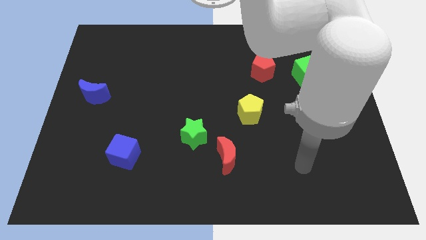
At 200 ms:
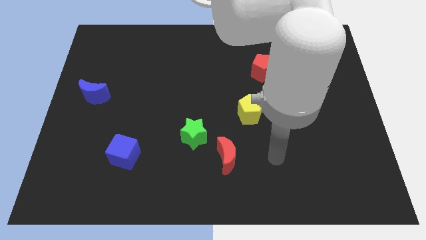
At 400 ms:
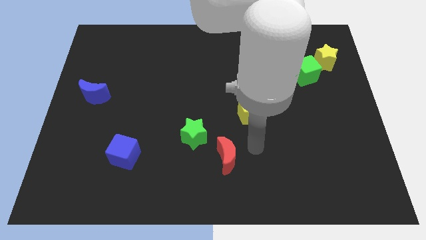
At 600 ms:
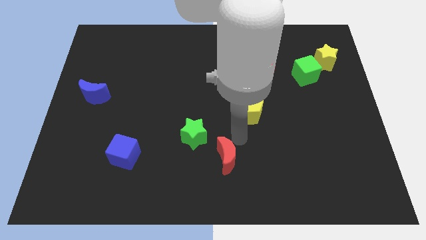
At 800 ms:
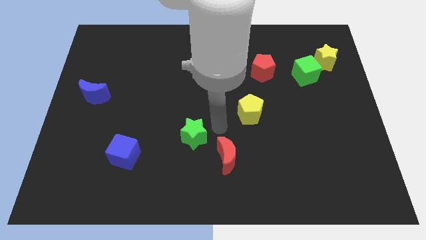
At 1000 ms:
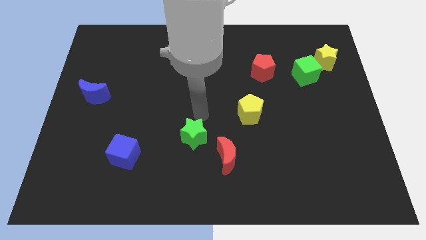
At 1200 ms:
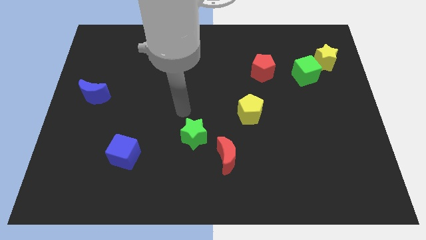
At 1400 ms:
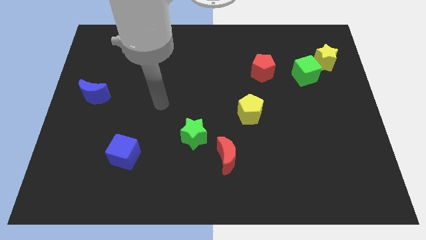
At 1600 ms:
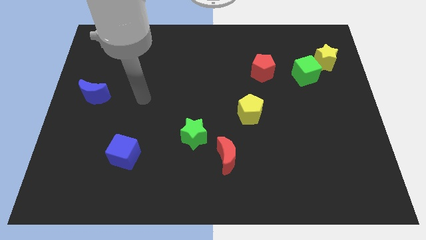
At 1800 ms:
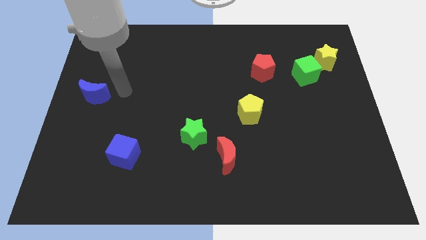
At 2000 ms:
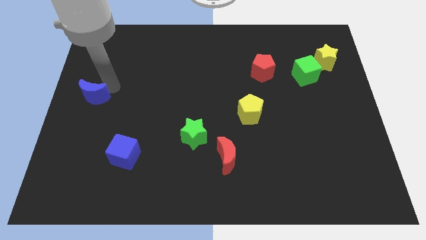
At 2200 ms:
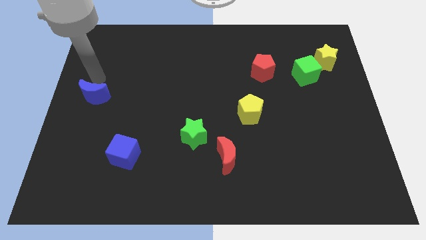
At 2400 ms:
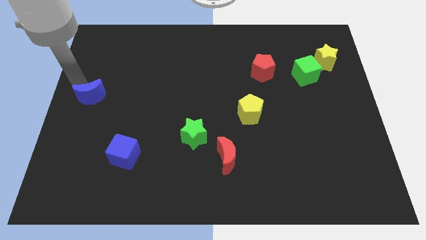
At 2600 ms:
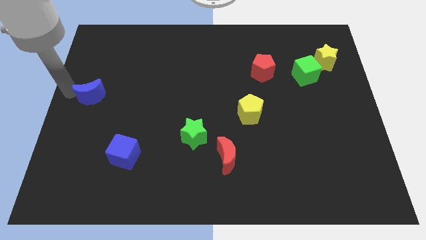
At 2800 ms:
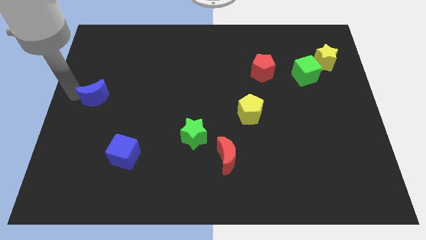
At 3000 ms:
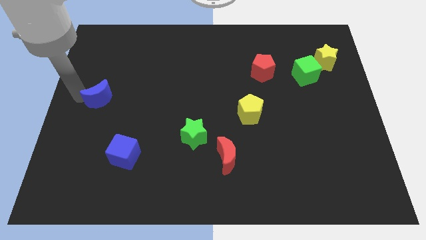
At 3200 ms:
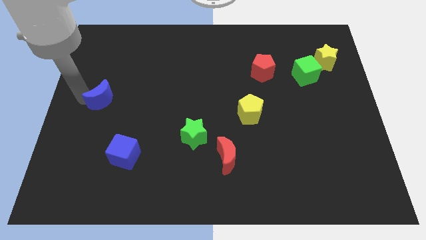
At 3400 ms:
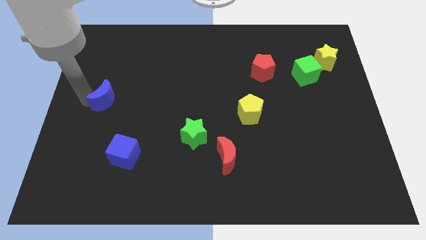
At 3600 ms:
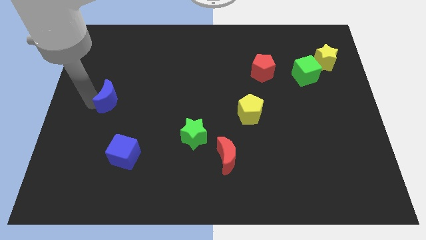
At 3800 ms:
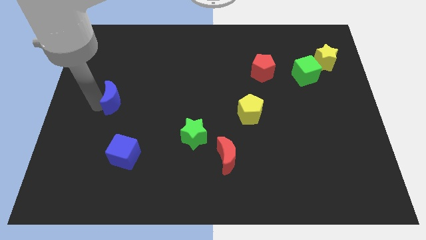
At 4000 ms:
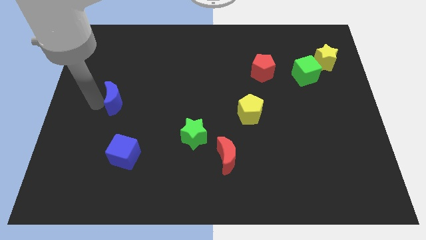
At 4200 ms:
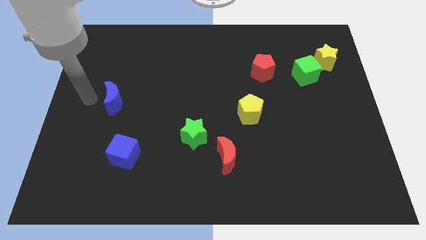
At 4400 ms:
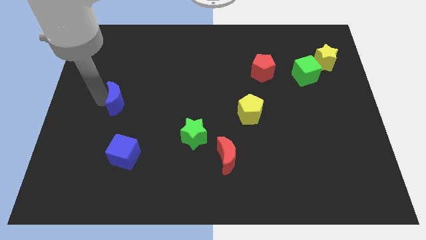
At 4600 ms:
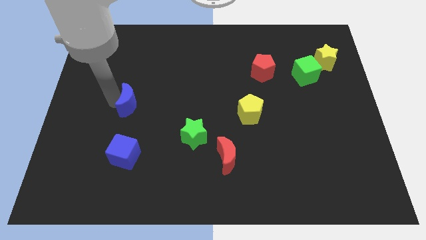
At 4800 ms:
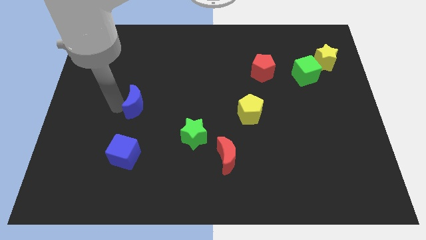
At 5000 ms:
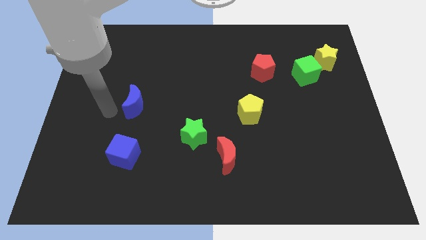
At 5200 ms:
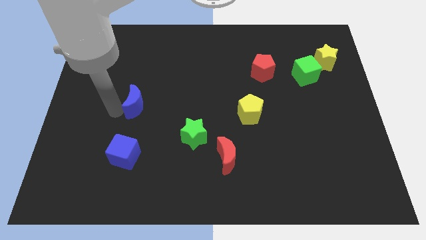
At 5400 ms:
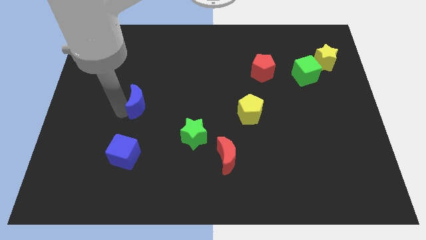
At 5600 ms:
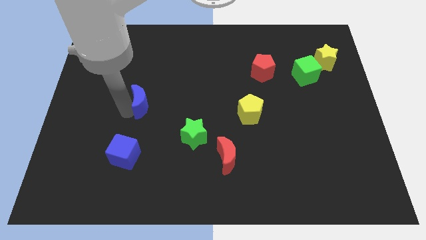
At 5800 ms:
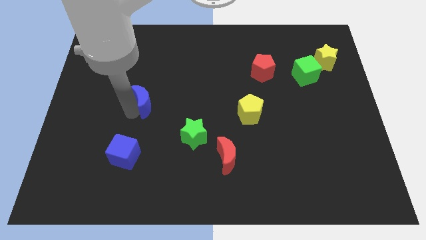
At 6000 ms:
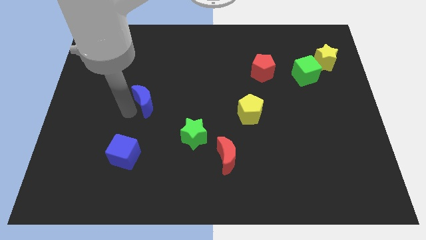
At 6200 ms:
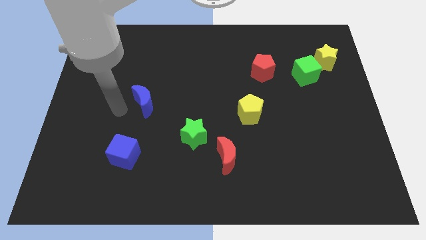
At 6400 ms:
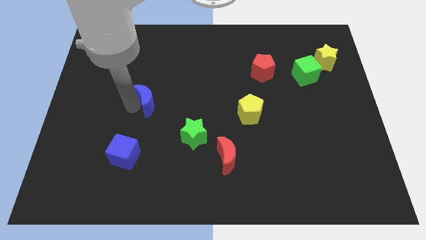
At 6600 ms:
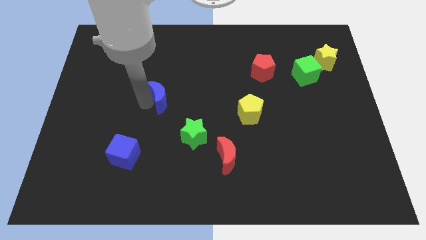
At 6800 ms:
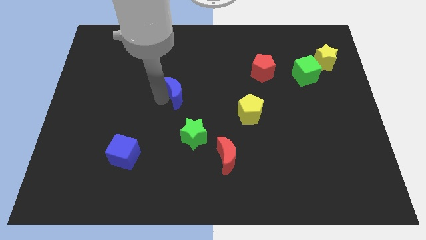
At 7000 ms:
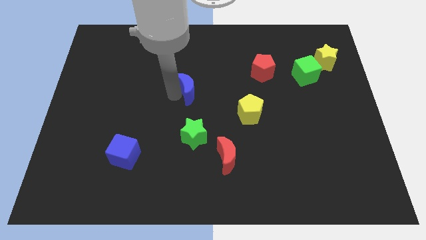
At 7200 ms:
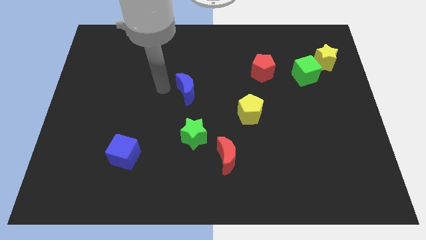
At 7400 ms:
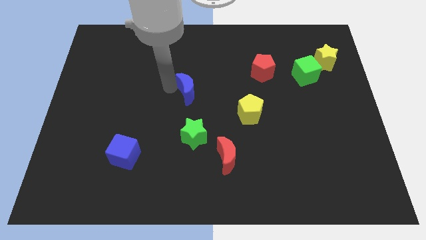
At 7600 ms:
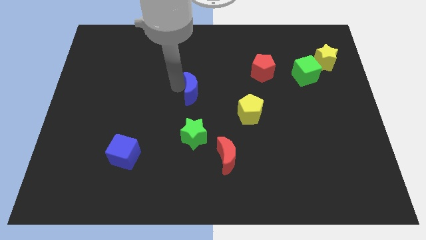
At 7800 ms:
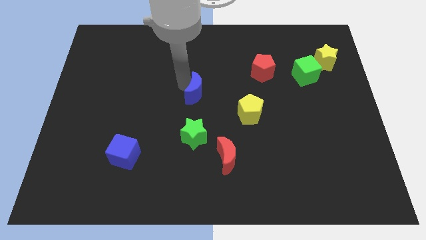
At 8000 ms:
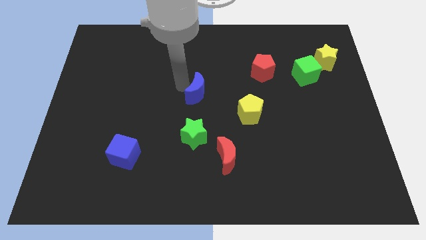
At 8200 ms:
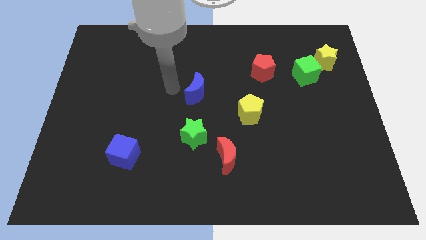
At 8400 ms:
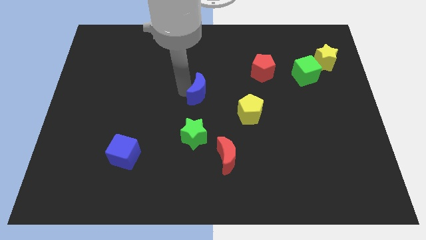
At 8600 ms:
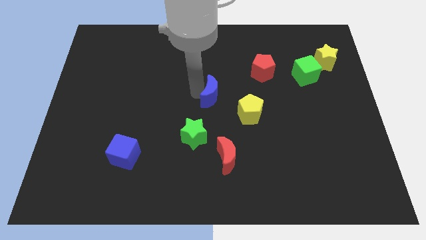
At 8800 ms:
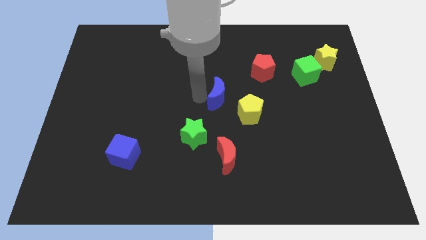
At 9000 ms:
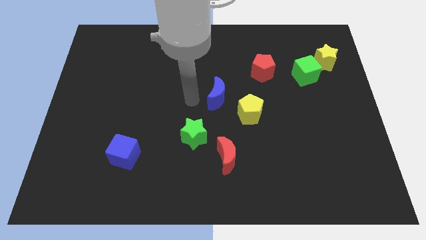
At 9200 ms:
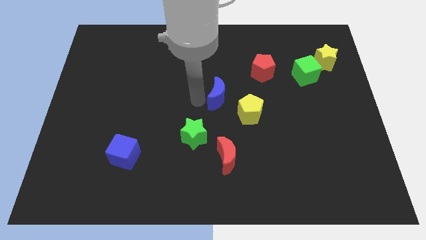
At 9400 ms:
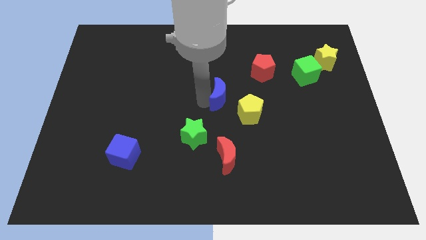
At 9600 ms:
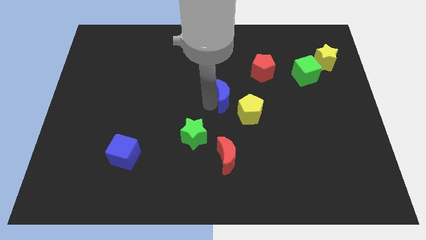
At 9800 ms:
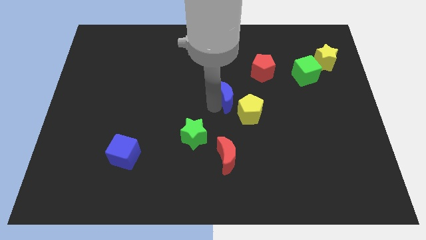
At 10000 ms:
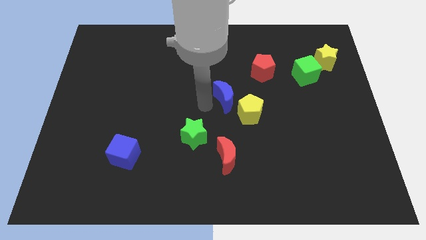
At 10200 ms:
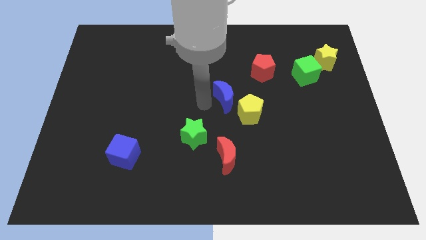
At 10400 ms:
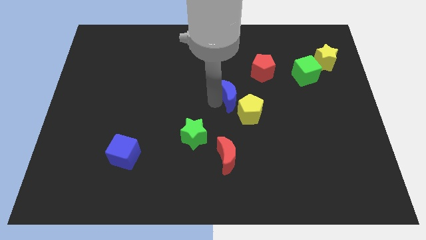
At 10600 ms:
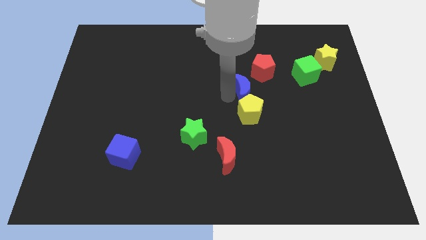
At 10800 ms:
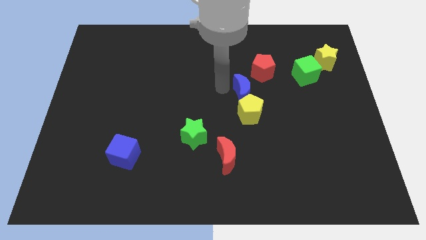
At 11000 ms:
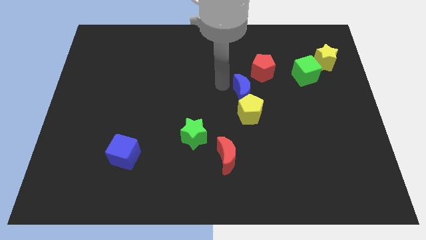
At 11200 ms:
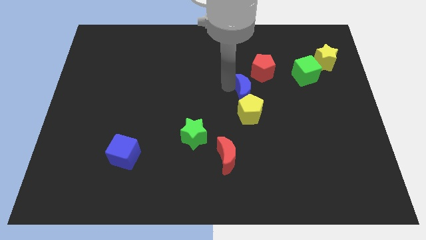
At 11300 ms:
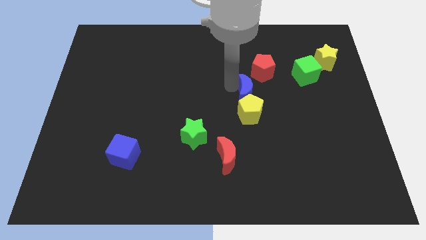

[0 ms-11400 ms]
move the blue moon to the bottom of the red pentagon
